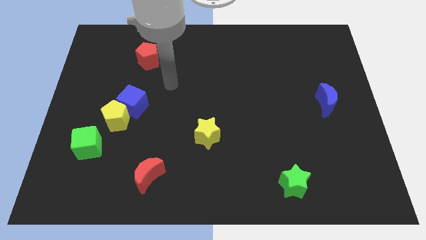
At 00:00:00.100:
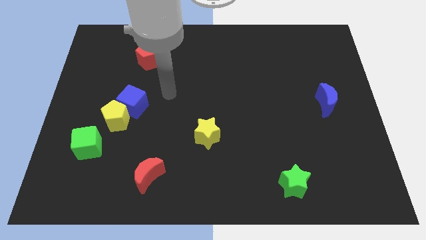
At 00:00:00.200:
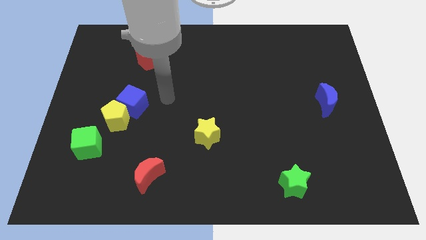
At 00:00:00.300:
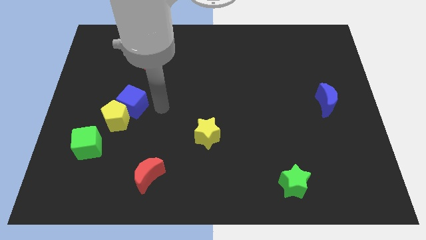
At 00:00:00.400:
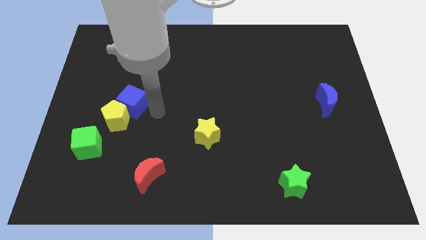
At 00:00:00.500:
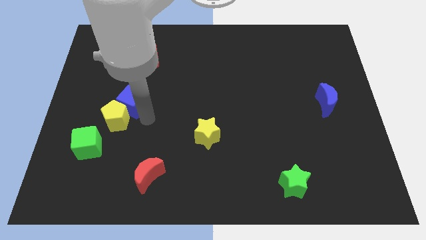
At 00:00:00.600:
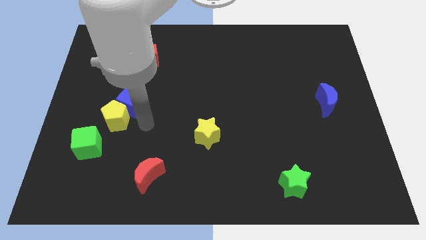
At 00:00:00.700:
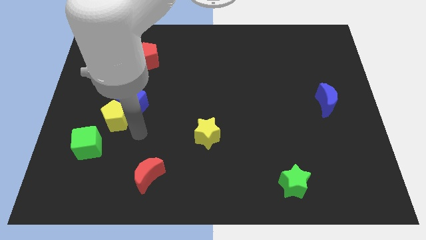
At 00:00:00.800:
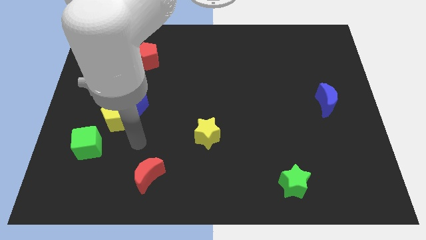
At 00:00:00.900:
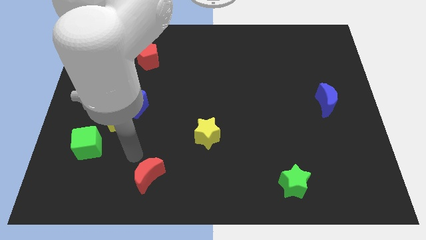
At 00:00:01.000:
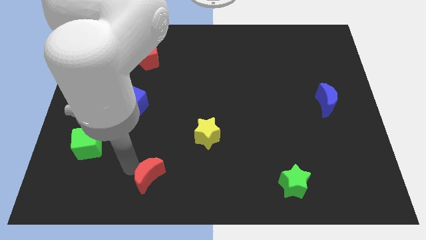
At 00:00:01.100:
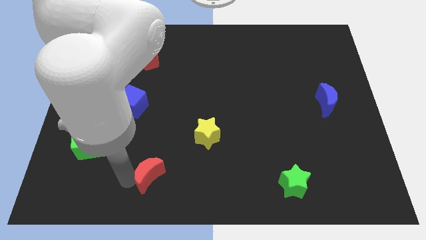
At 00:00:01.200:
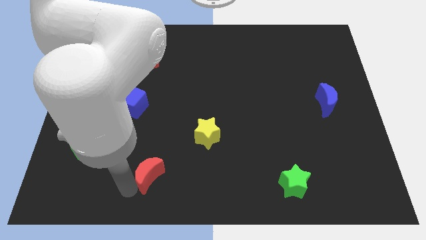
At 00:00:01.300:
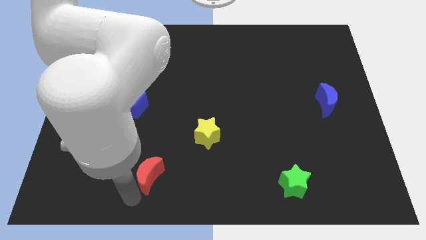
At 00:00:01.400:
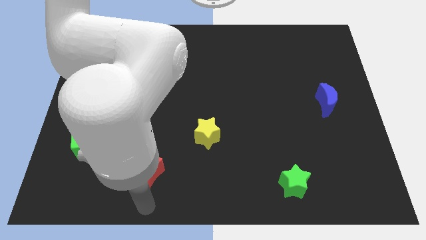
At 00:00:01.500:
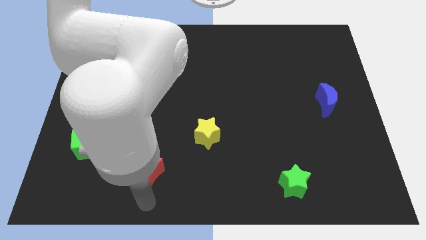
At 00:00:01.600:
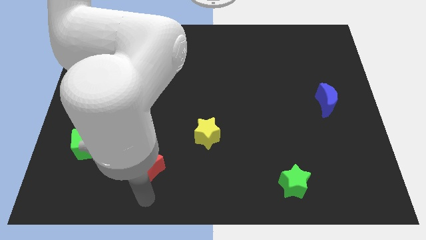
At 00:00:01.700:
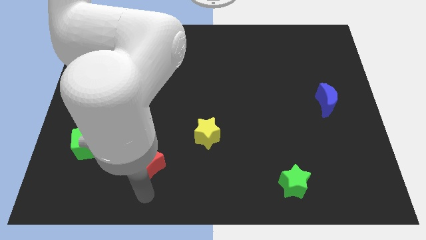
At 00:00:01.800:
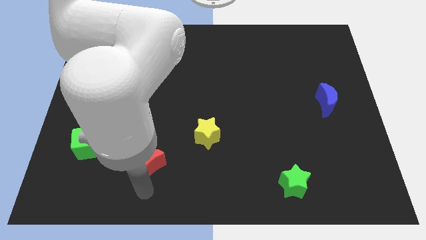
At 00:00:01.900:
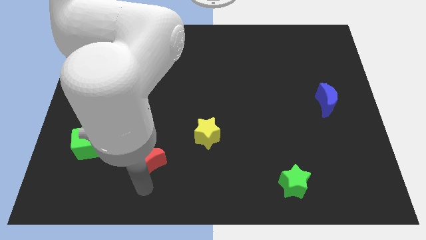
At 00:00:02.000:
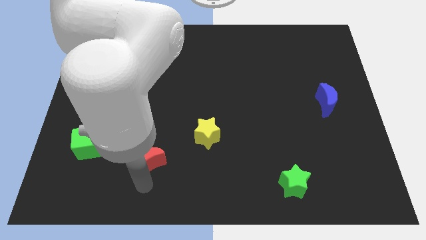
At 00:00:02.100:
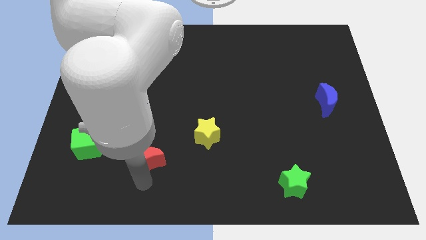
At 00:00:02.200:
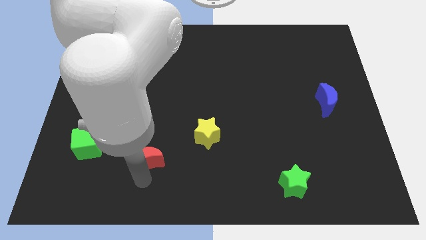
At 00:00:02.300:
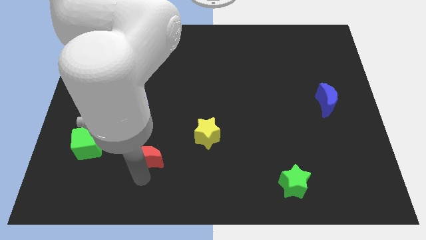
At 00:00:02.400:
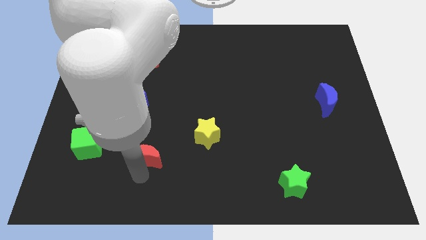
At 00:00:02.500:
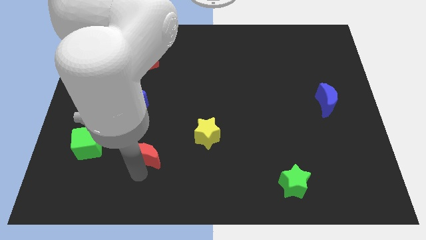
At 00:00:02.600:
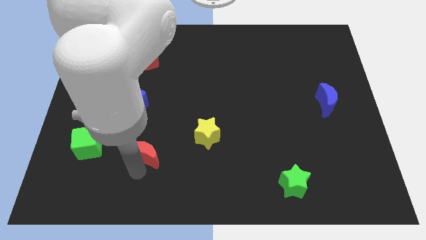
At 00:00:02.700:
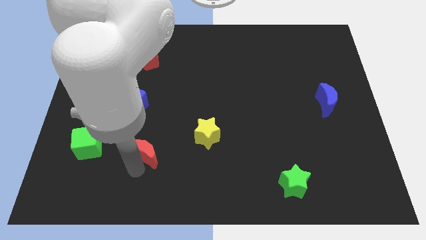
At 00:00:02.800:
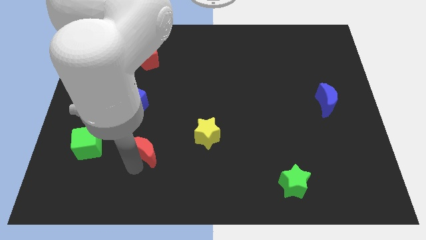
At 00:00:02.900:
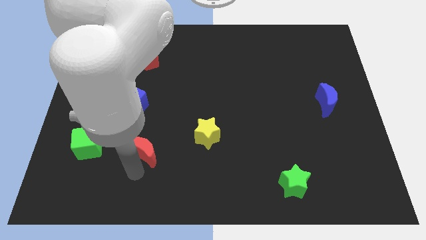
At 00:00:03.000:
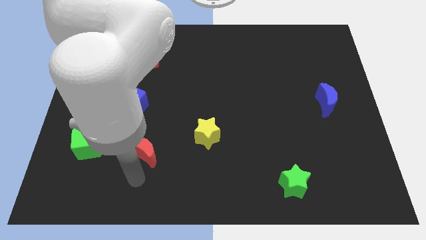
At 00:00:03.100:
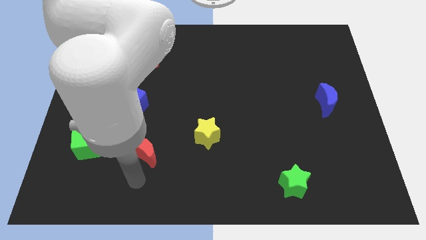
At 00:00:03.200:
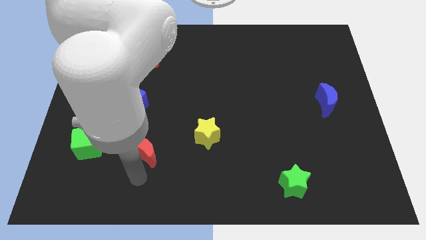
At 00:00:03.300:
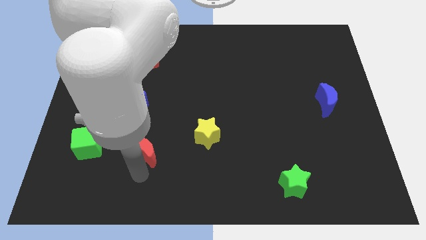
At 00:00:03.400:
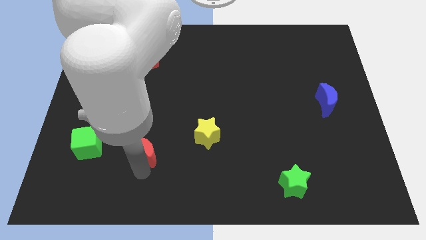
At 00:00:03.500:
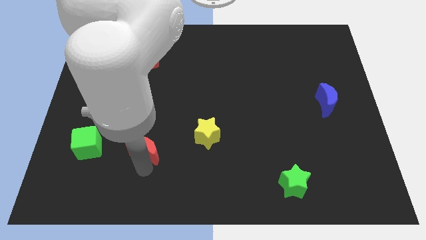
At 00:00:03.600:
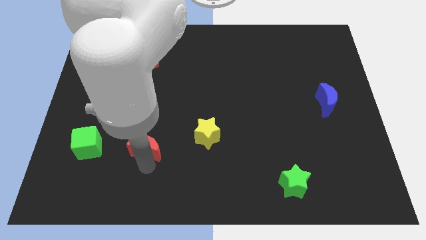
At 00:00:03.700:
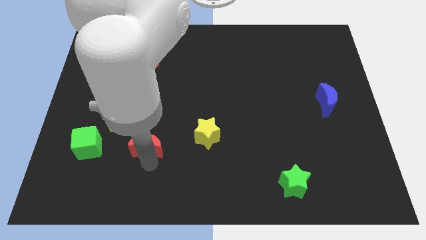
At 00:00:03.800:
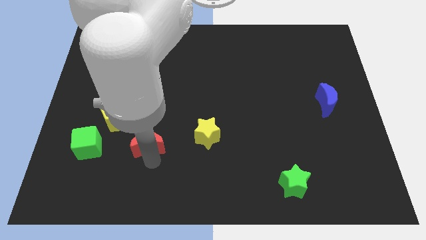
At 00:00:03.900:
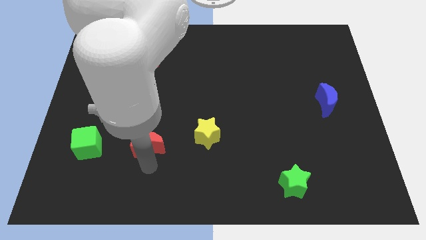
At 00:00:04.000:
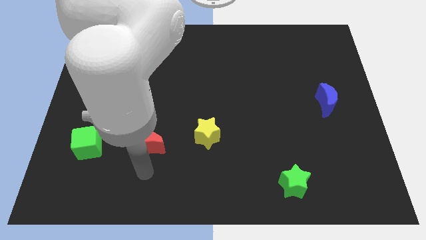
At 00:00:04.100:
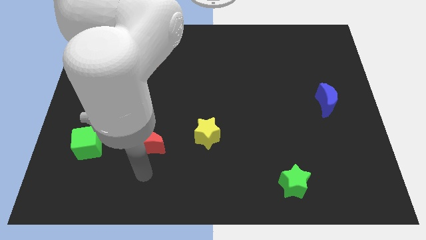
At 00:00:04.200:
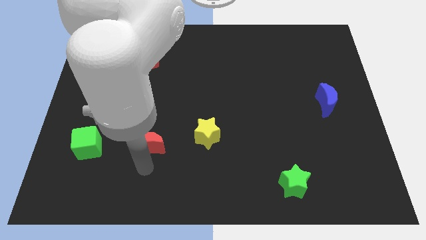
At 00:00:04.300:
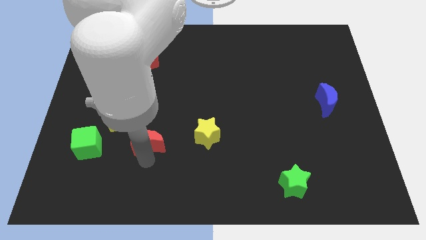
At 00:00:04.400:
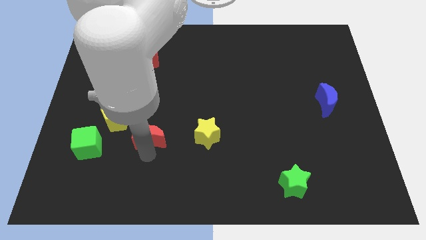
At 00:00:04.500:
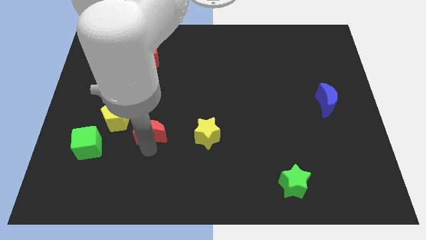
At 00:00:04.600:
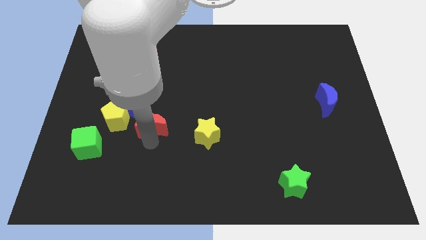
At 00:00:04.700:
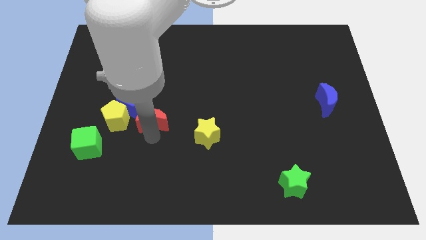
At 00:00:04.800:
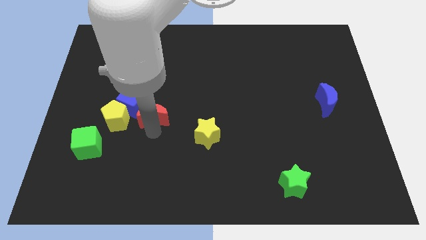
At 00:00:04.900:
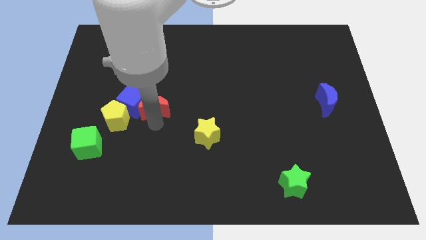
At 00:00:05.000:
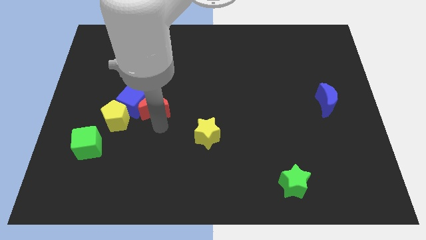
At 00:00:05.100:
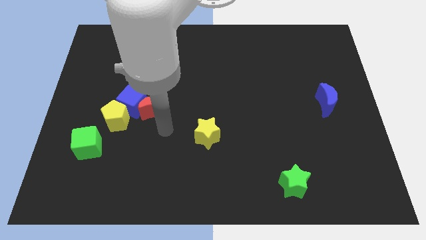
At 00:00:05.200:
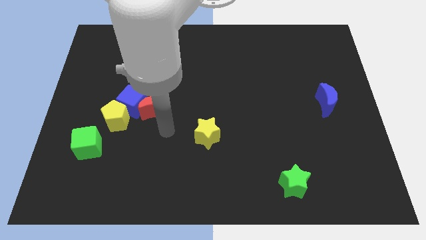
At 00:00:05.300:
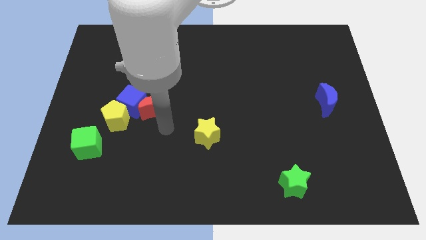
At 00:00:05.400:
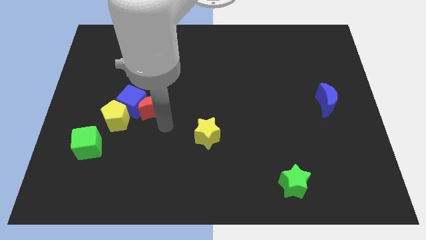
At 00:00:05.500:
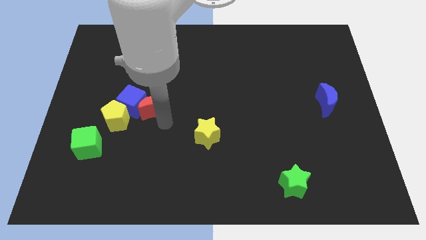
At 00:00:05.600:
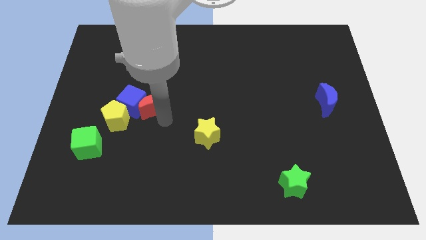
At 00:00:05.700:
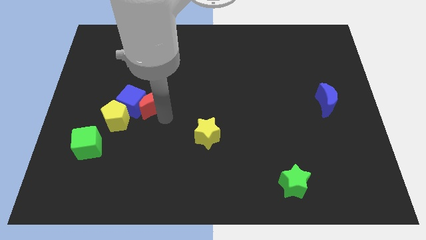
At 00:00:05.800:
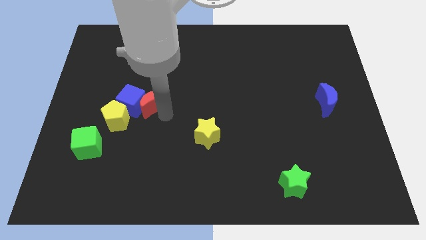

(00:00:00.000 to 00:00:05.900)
move the red moon to the bottom of the red pentagon

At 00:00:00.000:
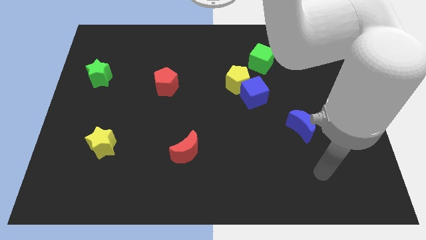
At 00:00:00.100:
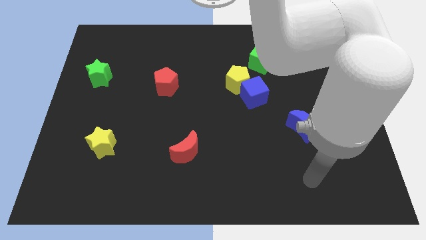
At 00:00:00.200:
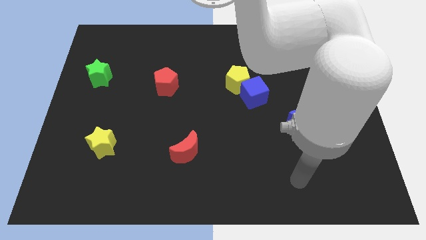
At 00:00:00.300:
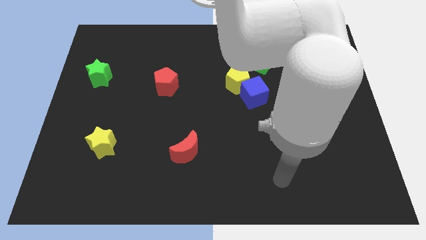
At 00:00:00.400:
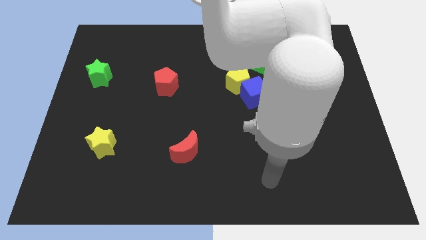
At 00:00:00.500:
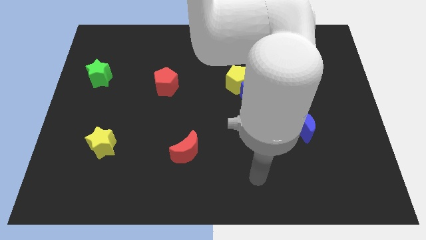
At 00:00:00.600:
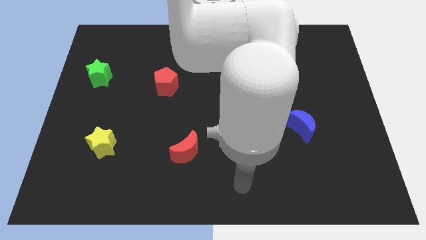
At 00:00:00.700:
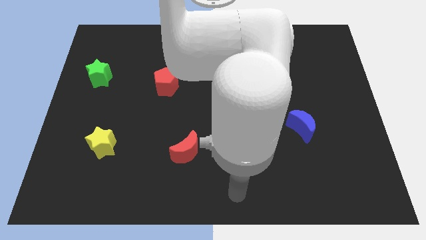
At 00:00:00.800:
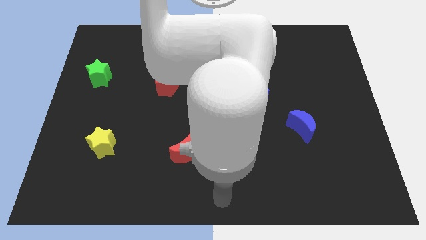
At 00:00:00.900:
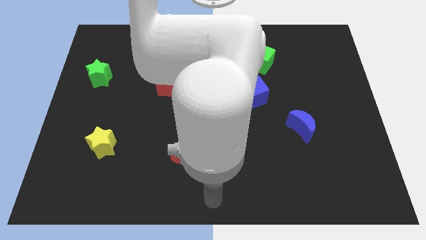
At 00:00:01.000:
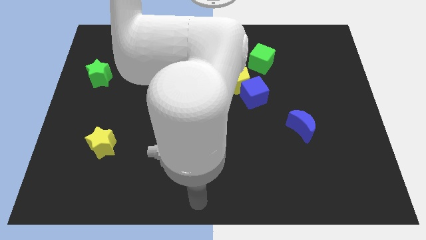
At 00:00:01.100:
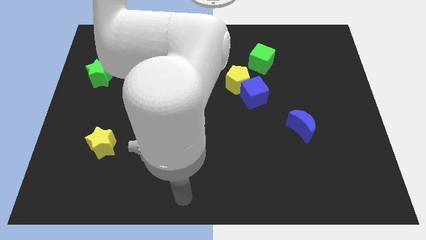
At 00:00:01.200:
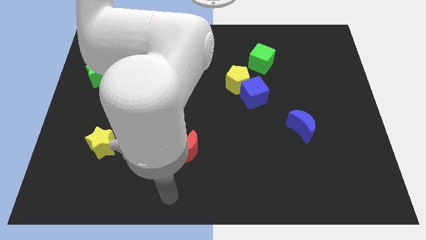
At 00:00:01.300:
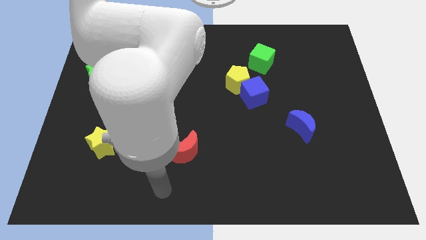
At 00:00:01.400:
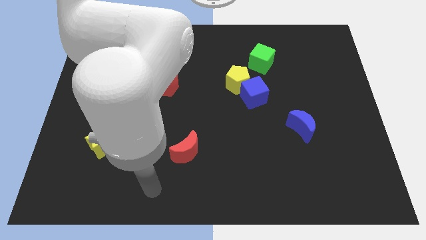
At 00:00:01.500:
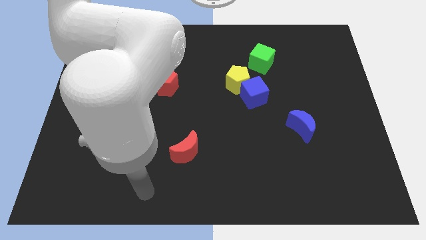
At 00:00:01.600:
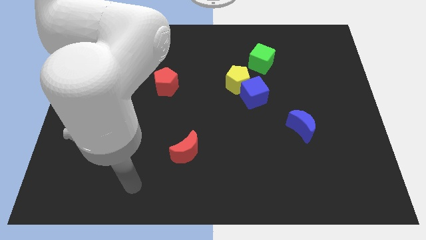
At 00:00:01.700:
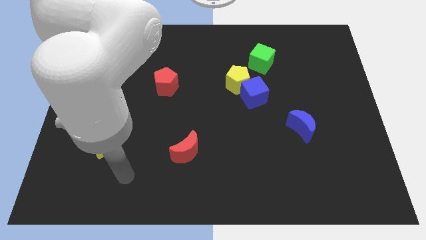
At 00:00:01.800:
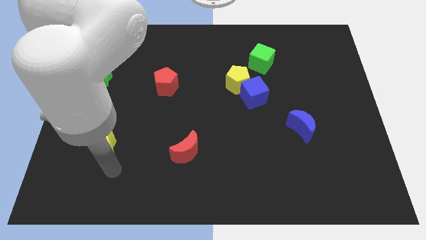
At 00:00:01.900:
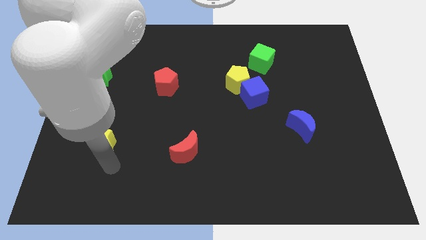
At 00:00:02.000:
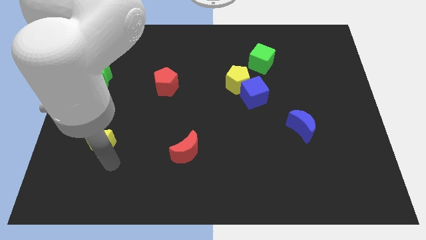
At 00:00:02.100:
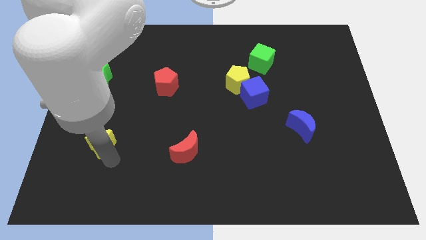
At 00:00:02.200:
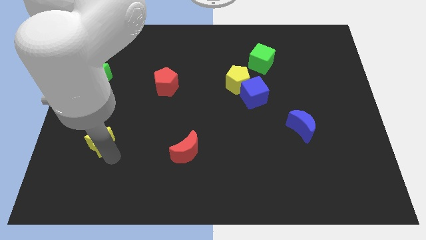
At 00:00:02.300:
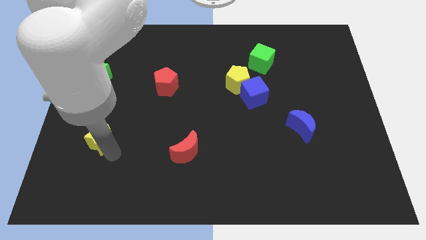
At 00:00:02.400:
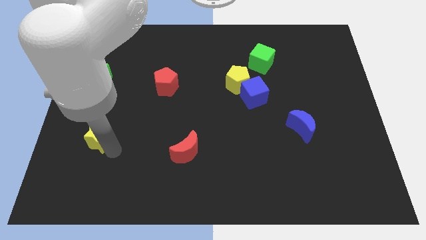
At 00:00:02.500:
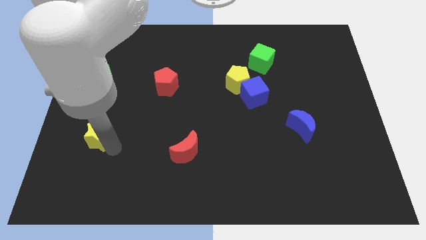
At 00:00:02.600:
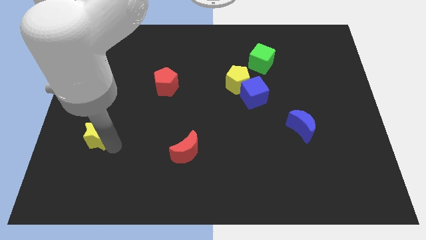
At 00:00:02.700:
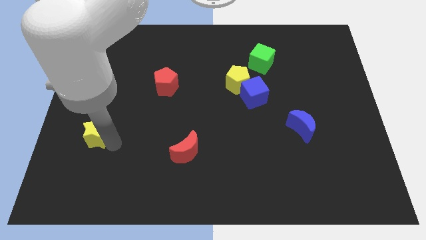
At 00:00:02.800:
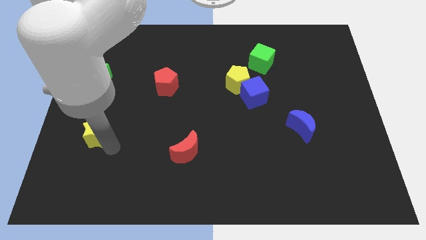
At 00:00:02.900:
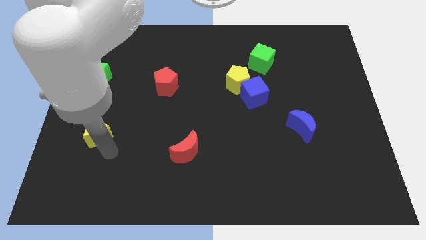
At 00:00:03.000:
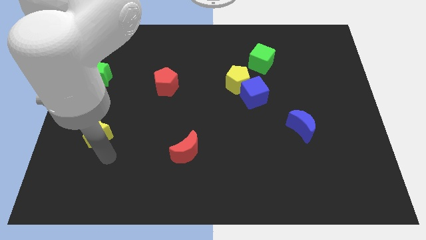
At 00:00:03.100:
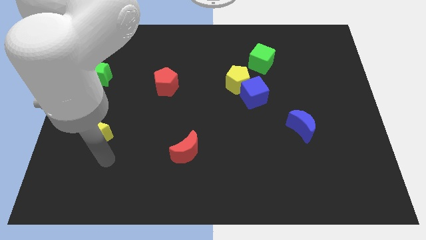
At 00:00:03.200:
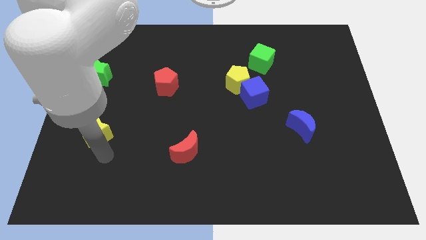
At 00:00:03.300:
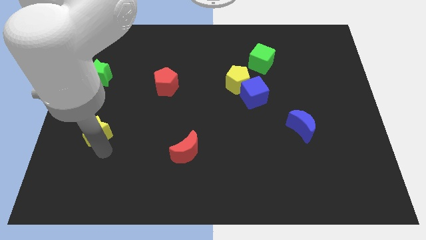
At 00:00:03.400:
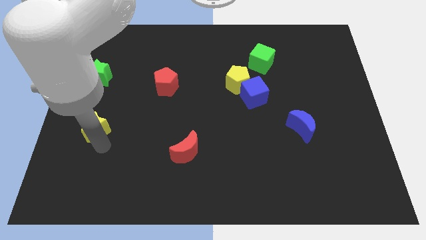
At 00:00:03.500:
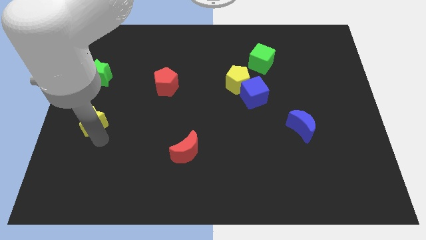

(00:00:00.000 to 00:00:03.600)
put the yellow star to the bottom of the green star
